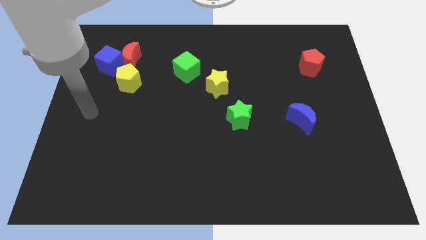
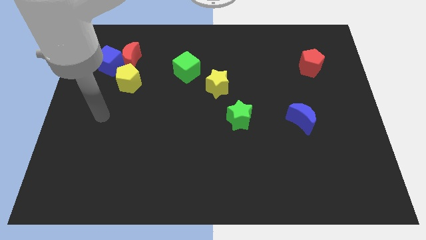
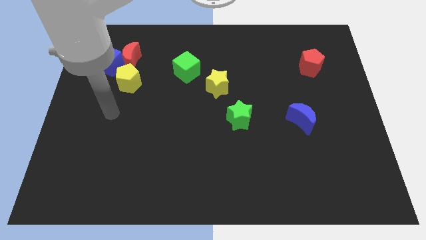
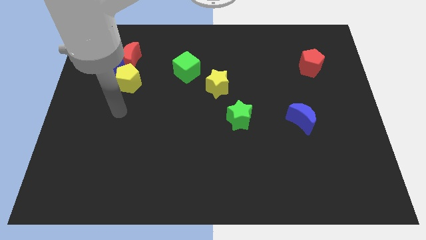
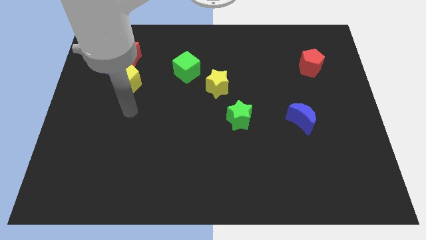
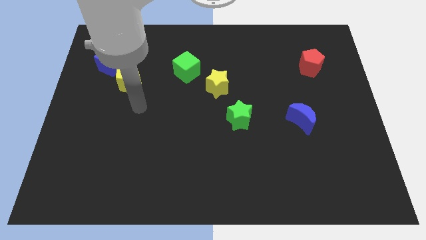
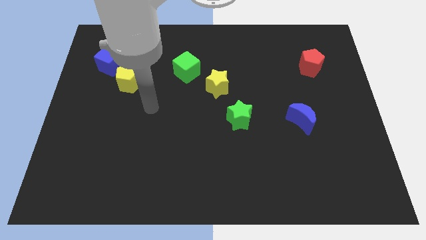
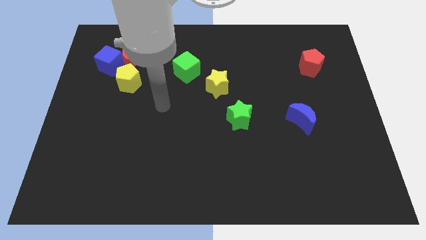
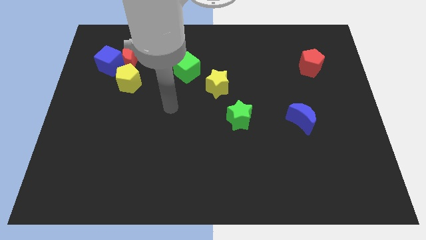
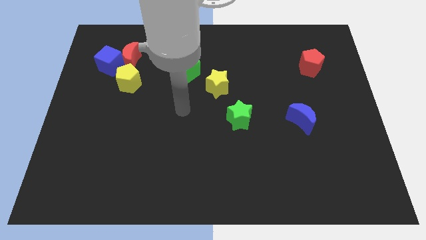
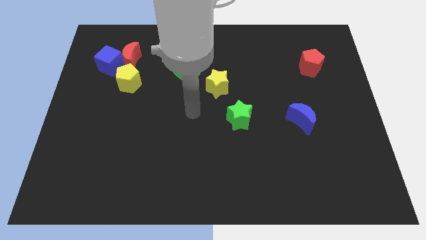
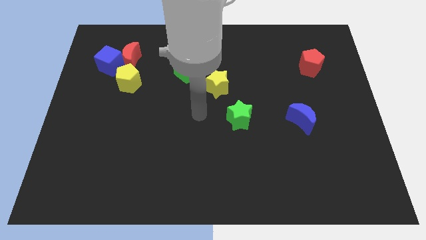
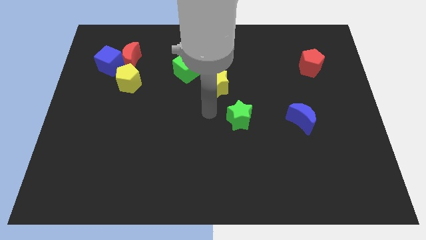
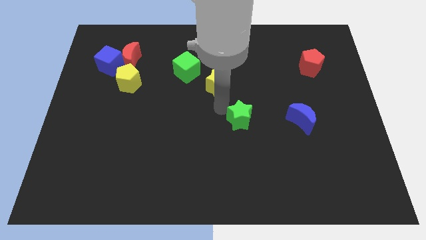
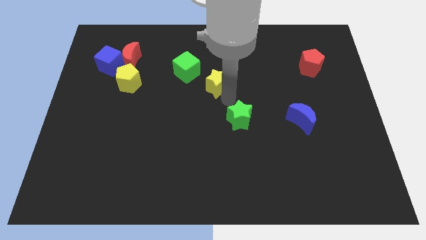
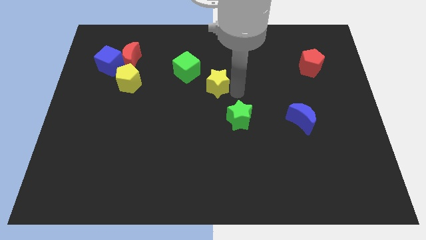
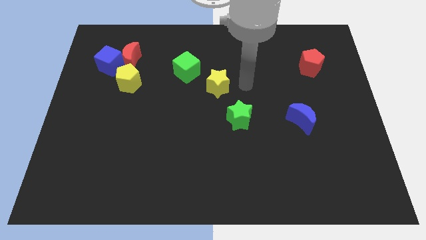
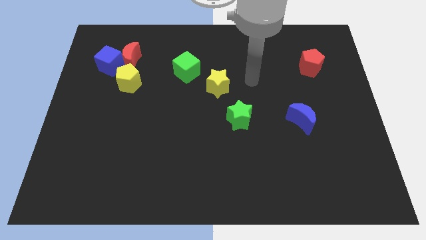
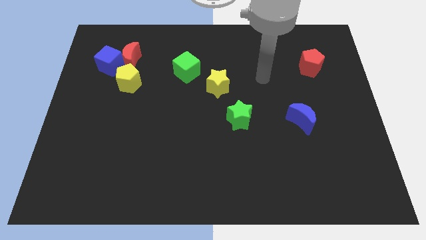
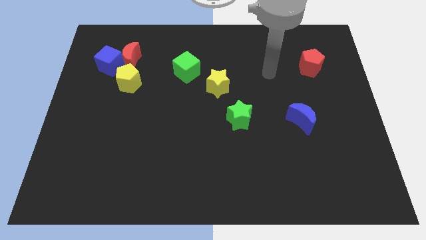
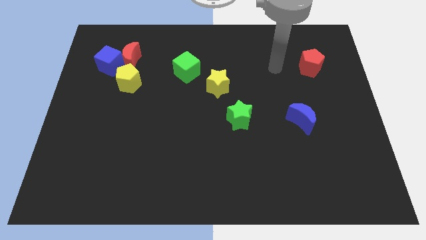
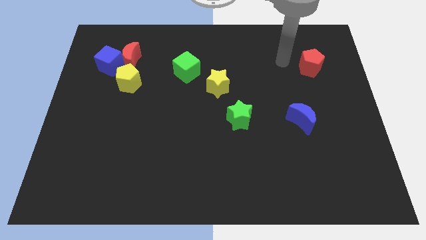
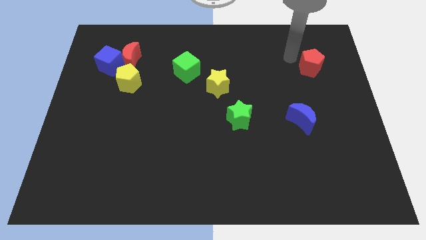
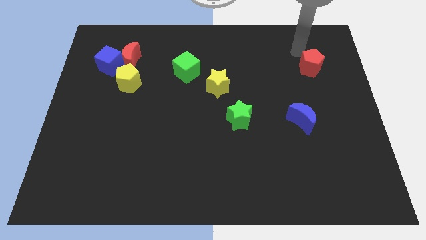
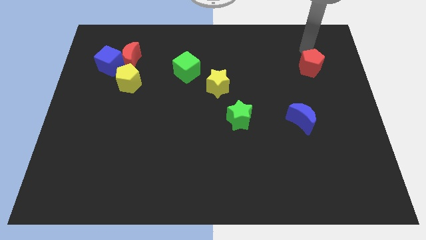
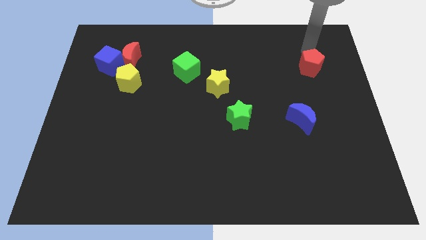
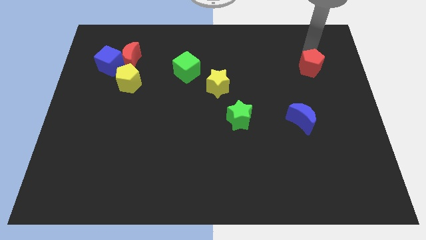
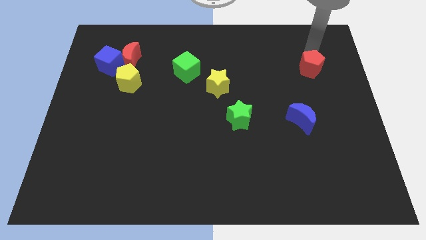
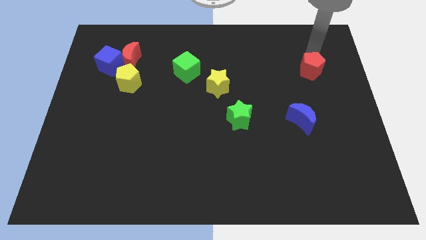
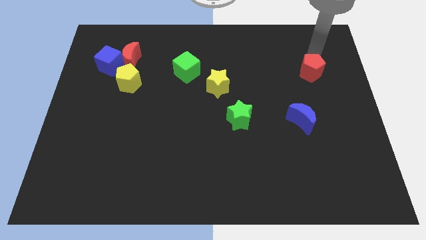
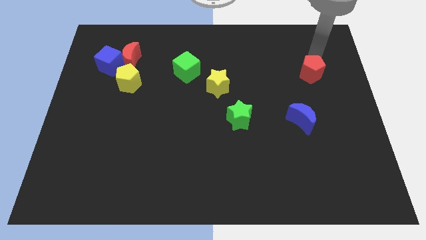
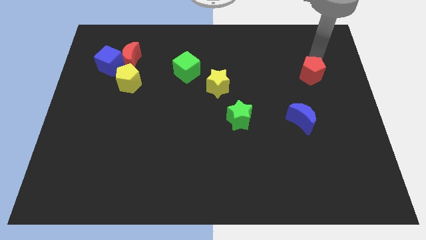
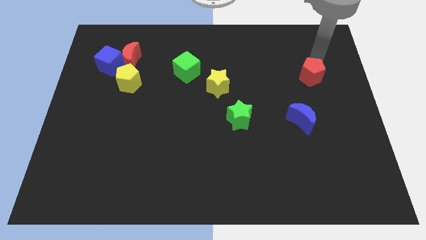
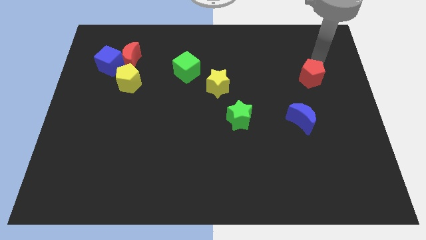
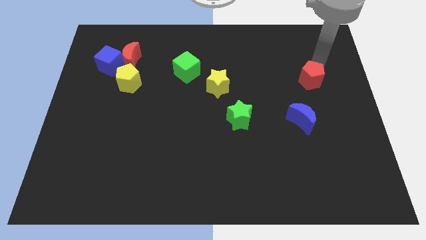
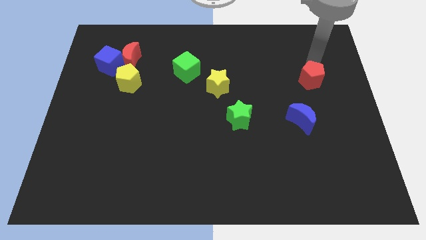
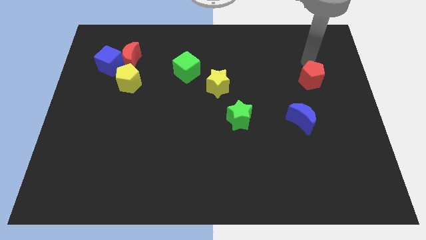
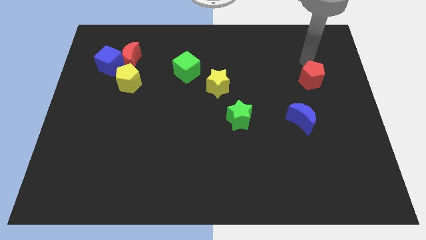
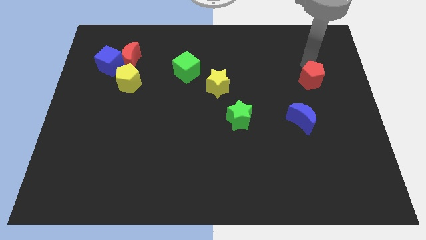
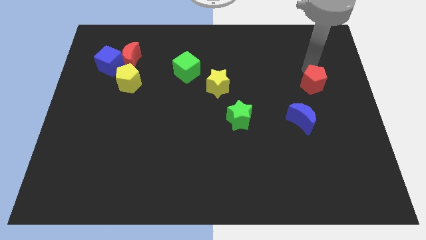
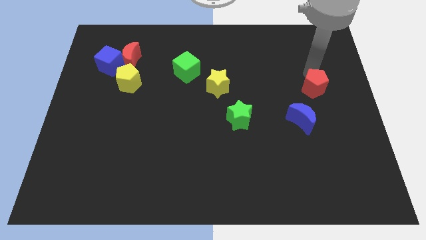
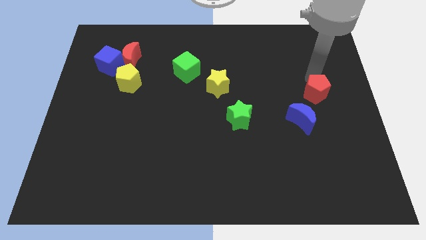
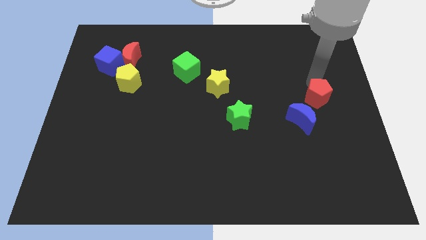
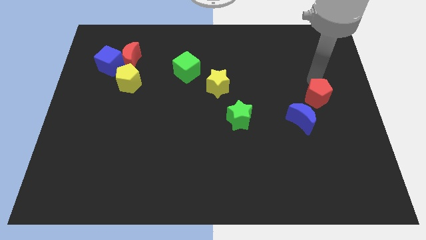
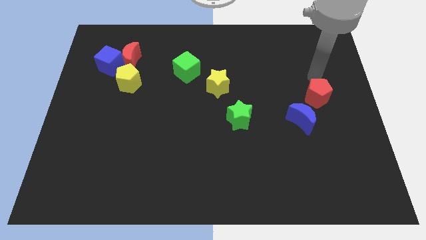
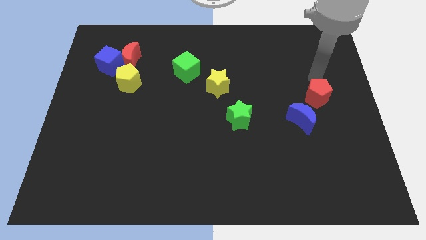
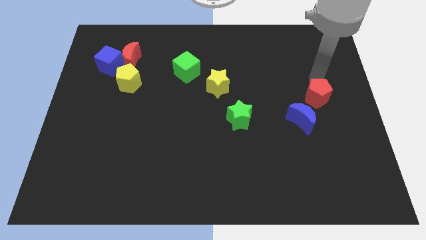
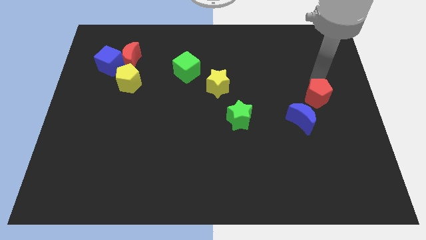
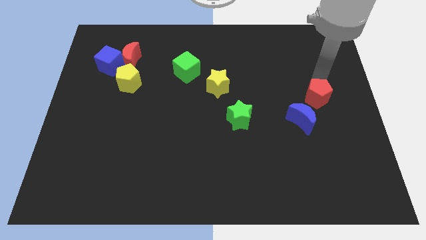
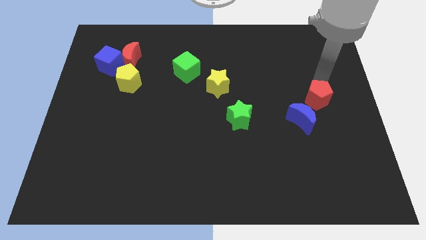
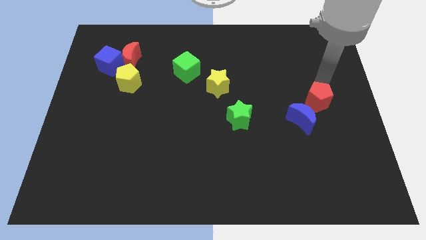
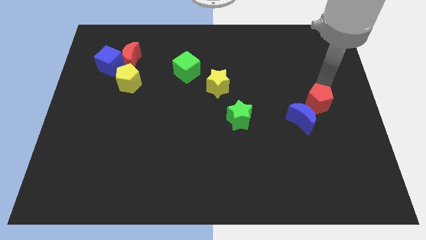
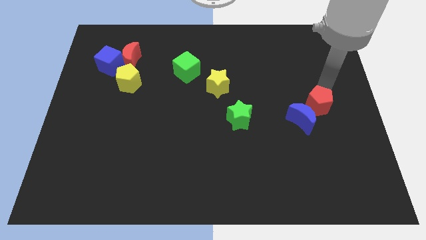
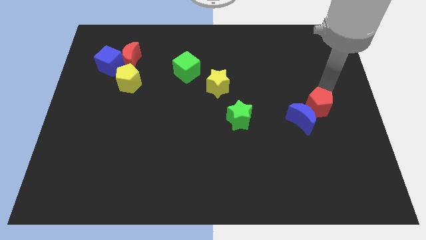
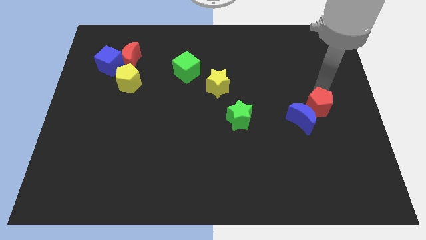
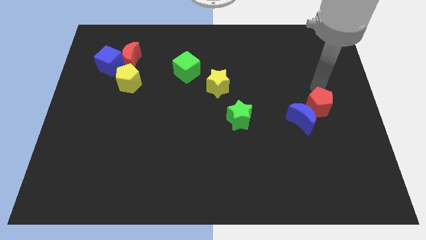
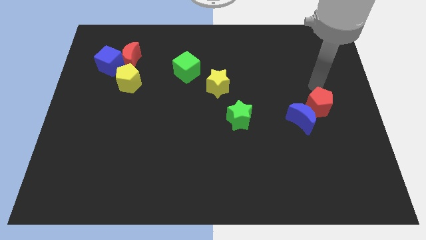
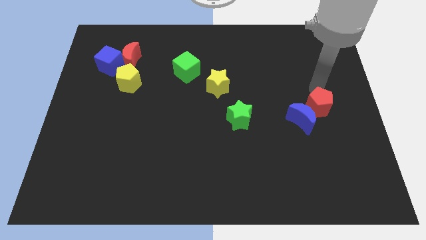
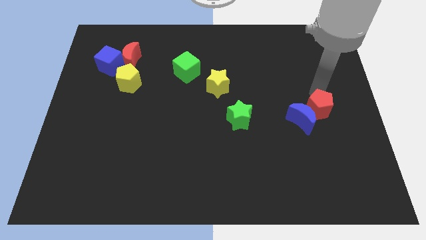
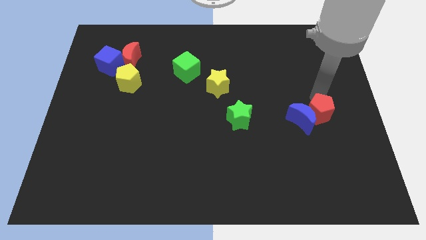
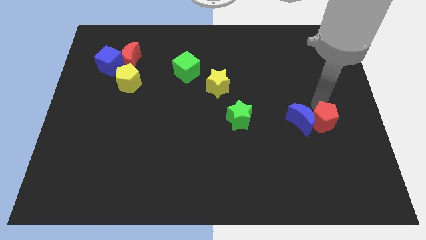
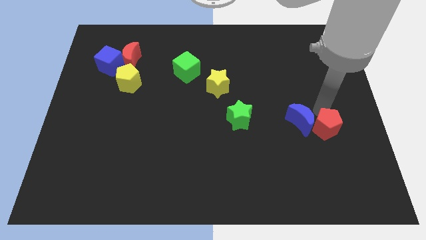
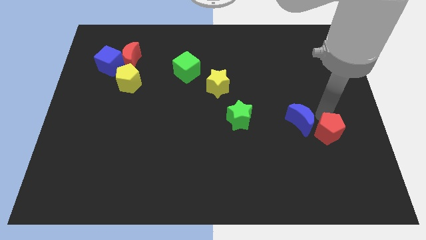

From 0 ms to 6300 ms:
push the red pentagon down

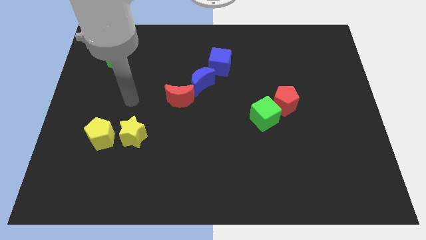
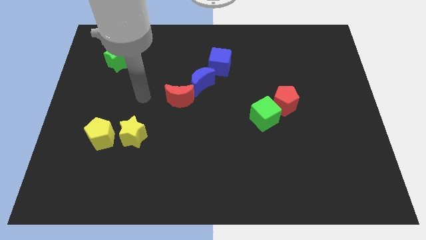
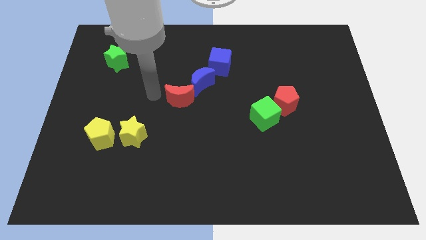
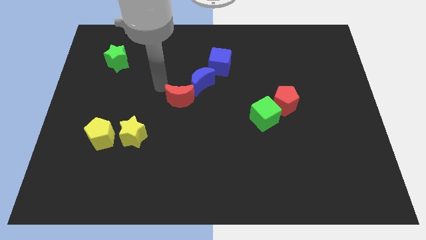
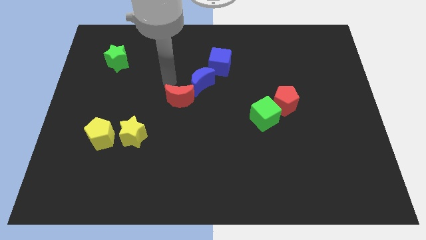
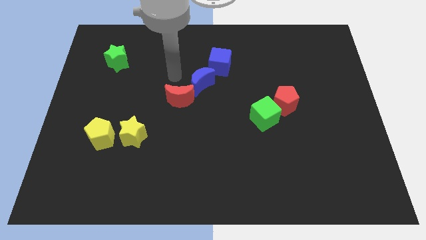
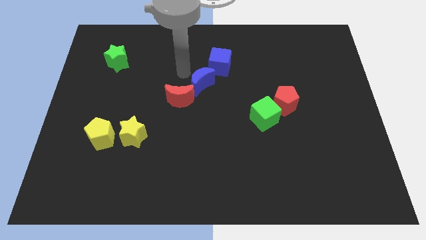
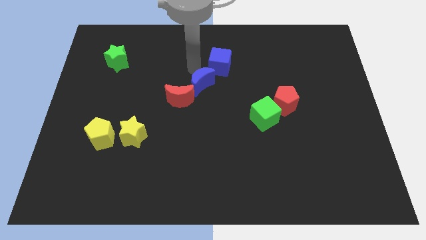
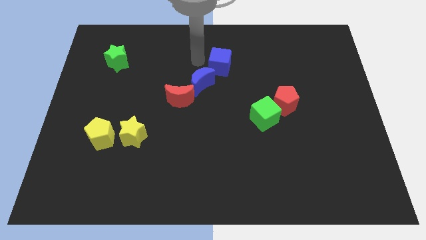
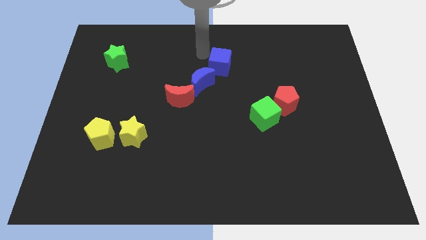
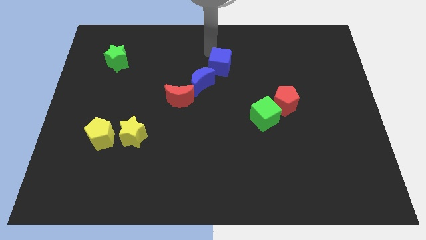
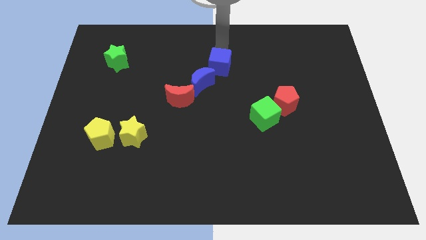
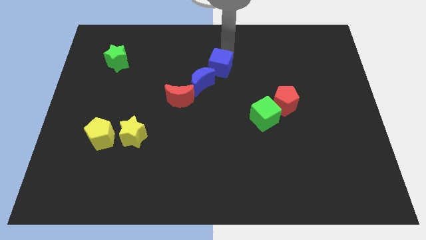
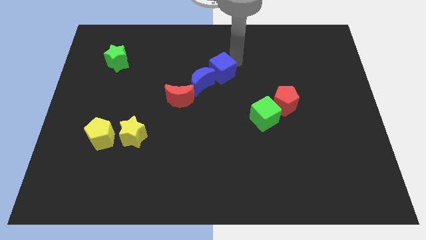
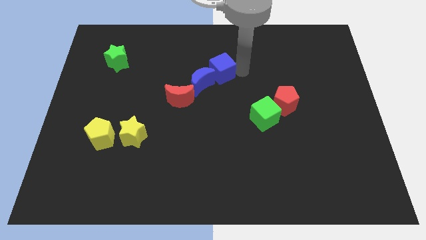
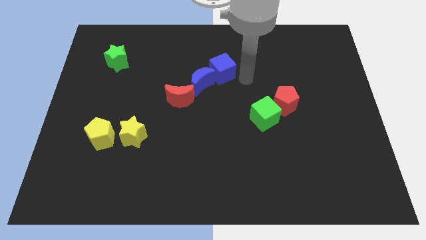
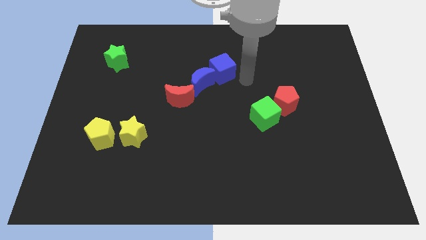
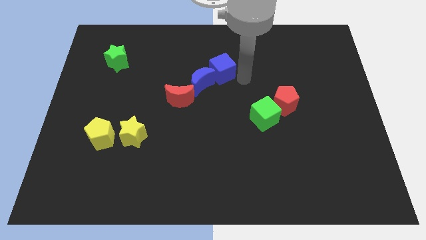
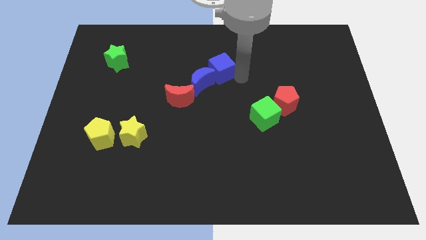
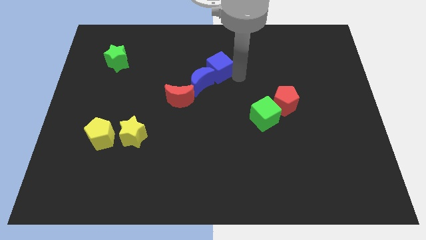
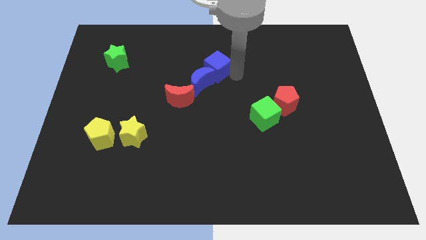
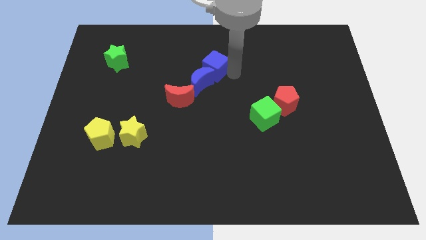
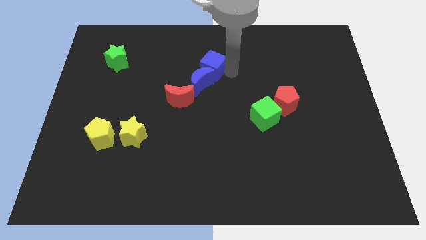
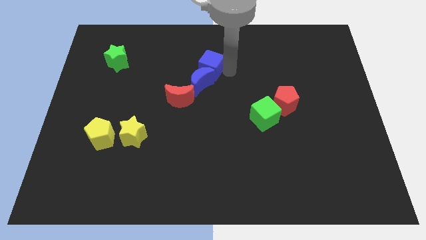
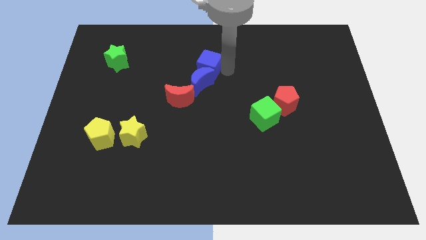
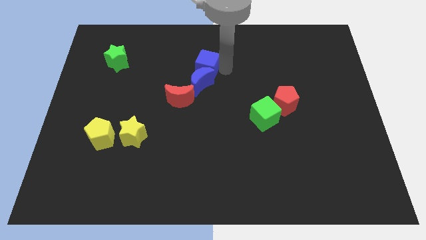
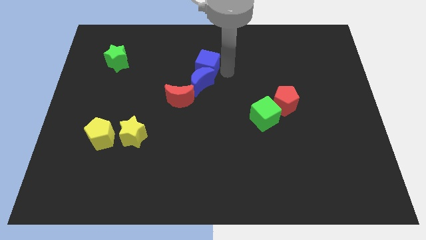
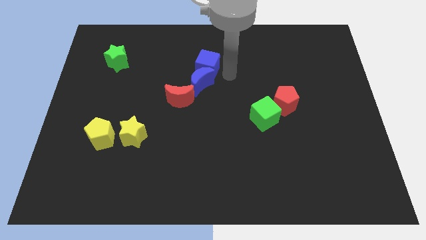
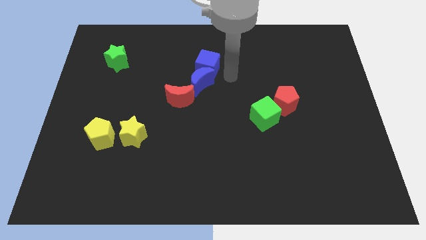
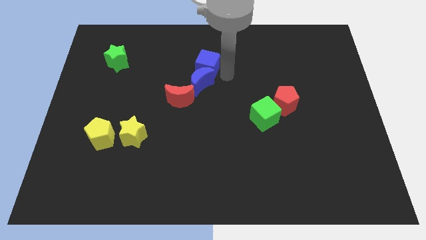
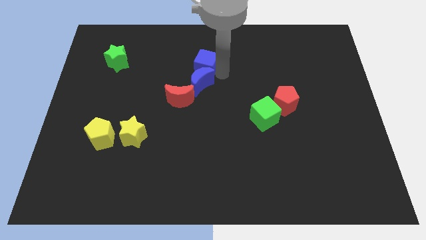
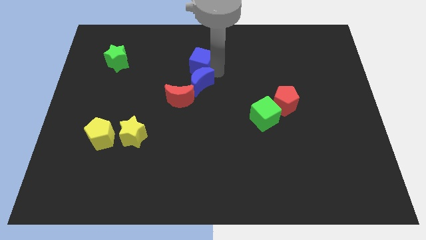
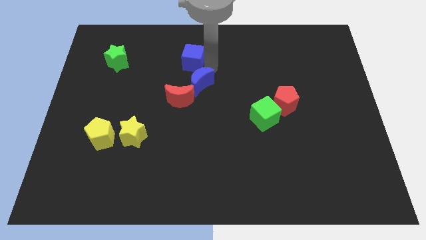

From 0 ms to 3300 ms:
move the blue cube a little to the left
